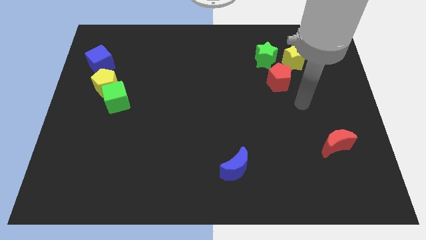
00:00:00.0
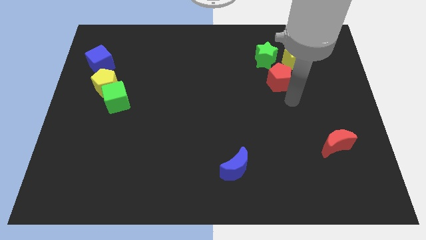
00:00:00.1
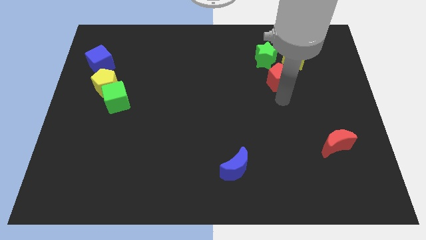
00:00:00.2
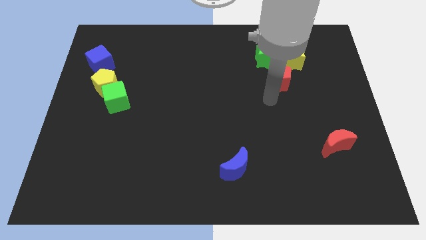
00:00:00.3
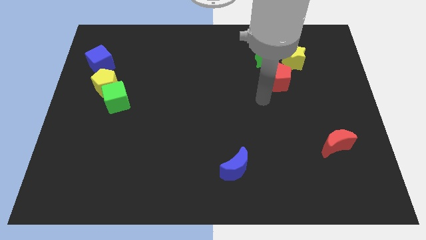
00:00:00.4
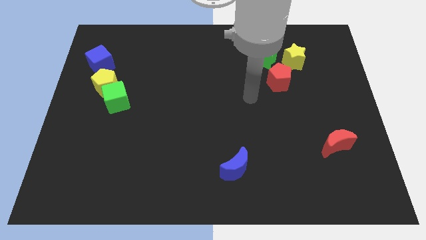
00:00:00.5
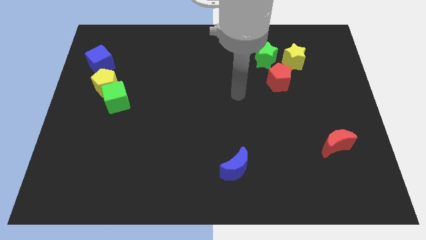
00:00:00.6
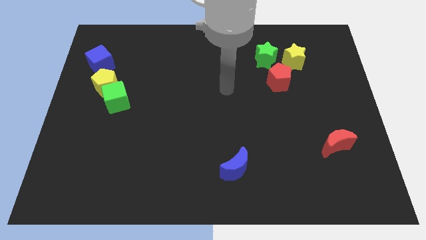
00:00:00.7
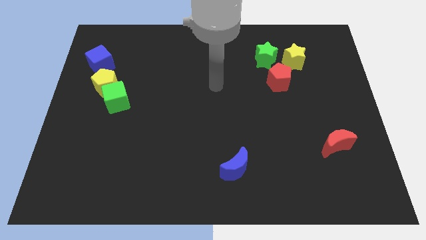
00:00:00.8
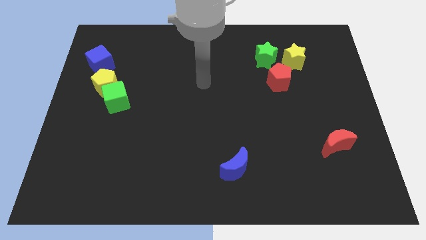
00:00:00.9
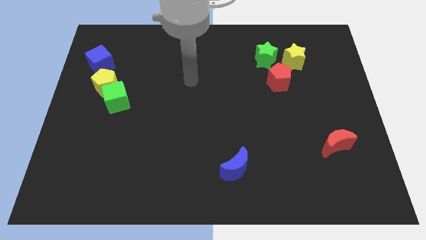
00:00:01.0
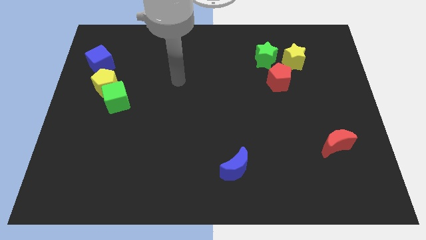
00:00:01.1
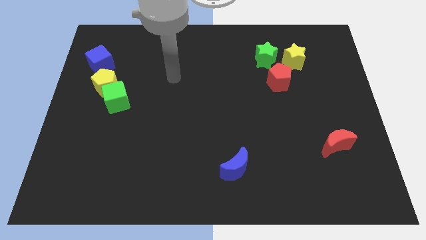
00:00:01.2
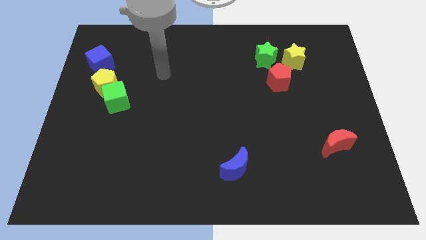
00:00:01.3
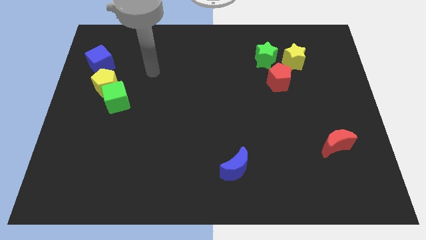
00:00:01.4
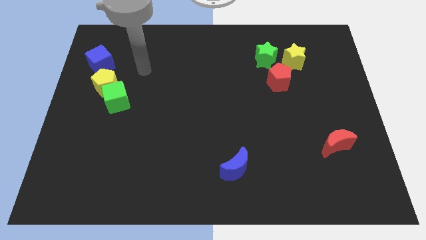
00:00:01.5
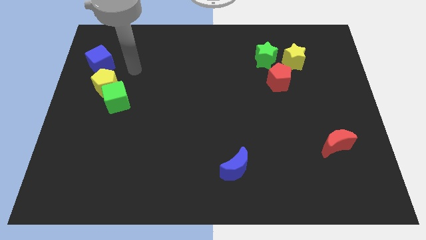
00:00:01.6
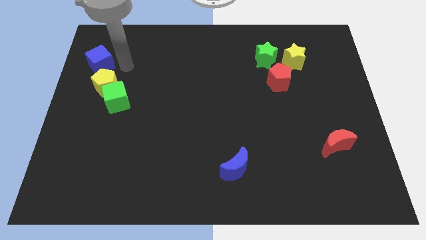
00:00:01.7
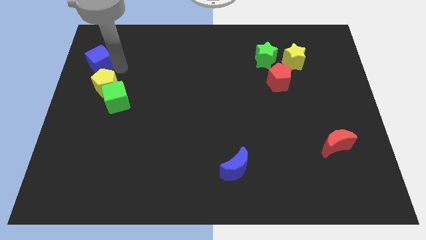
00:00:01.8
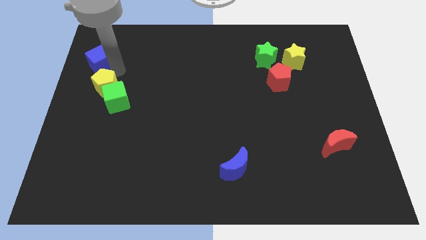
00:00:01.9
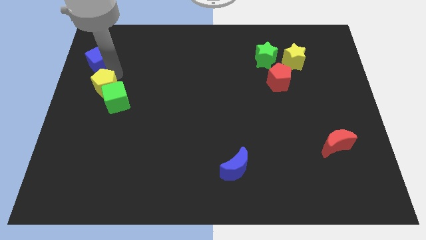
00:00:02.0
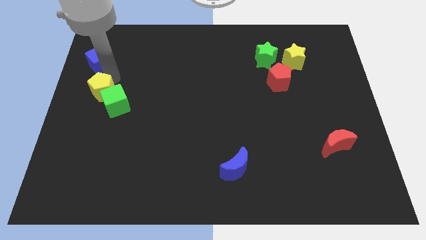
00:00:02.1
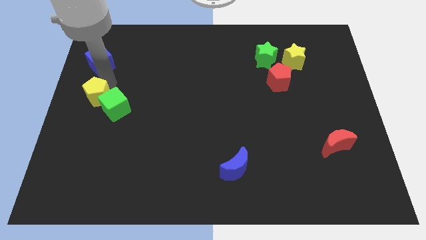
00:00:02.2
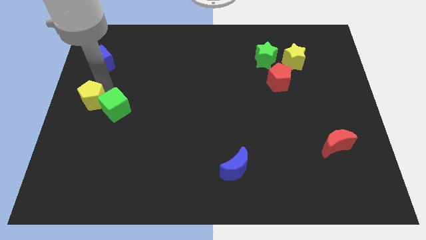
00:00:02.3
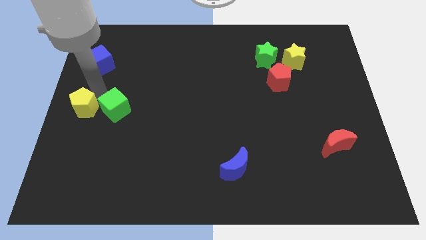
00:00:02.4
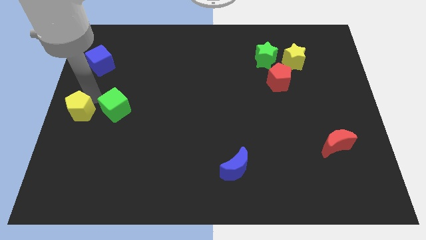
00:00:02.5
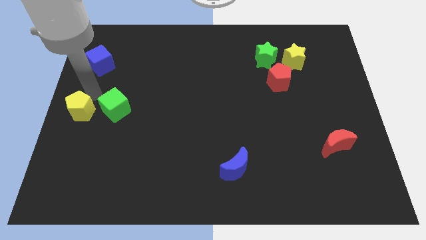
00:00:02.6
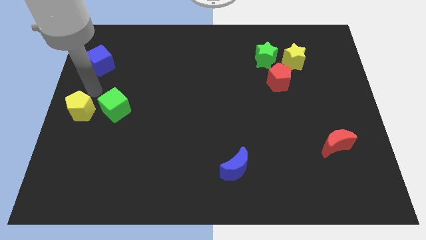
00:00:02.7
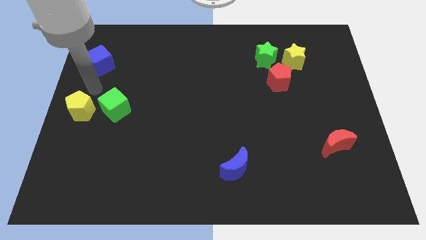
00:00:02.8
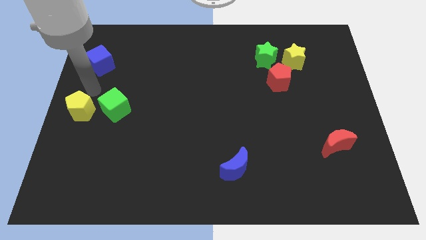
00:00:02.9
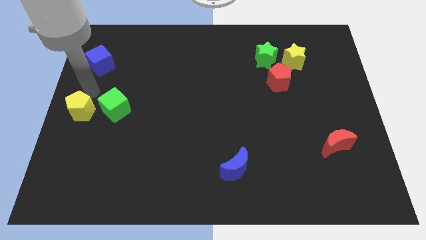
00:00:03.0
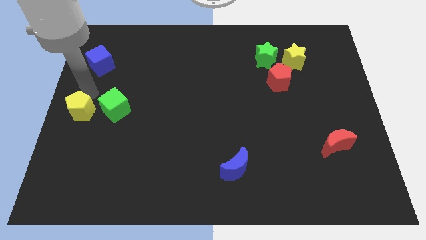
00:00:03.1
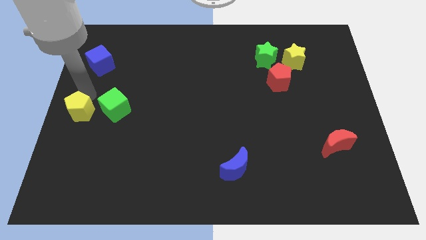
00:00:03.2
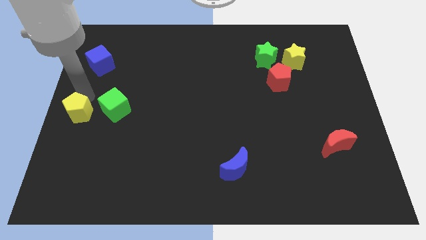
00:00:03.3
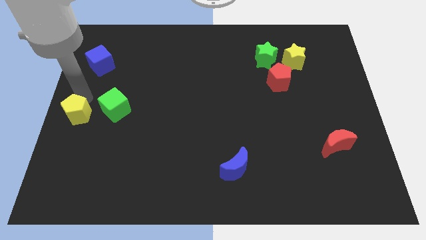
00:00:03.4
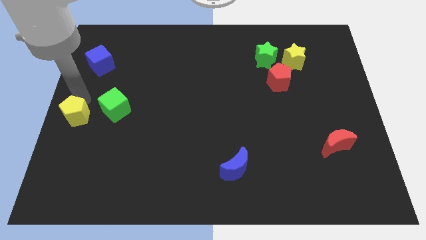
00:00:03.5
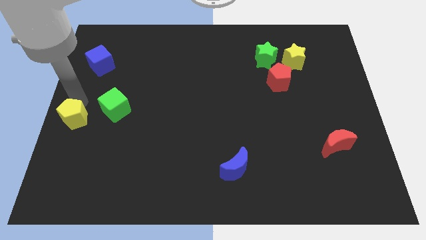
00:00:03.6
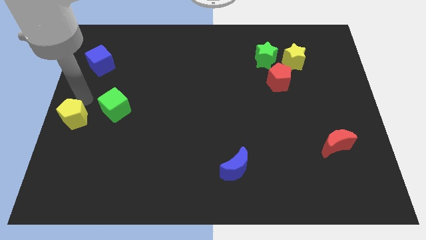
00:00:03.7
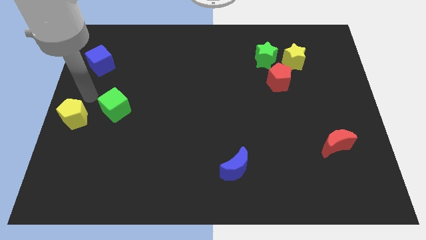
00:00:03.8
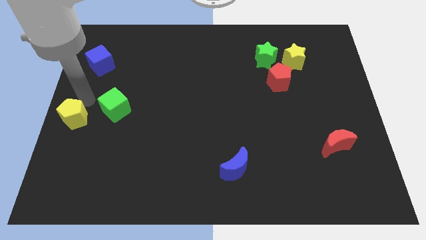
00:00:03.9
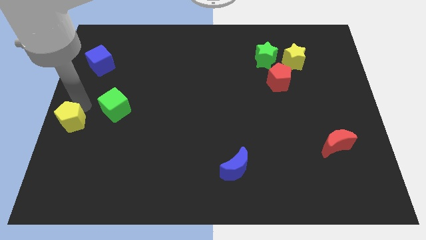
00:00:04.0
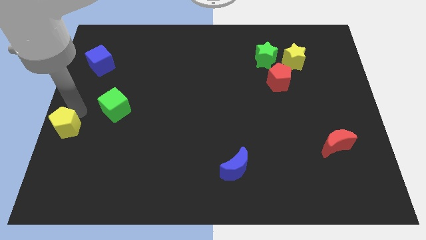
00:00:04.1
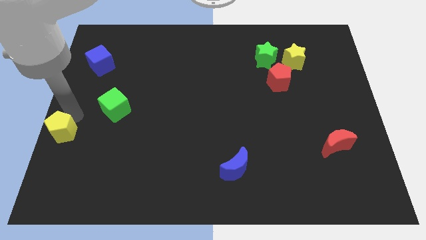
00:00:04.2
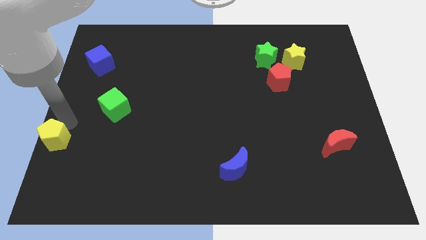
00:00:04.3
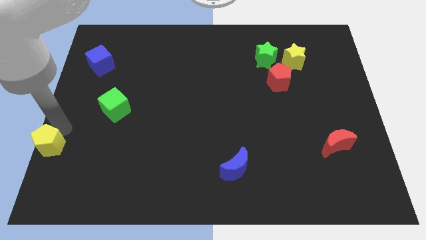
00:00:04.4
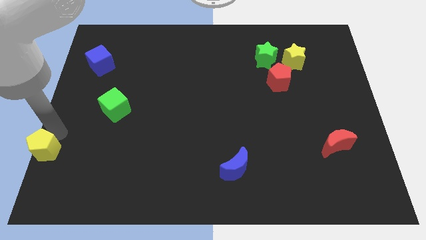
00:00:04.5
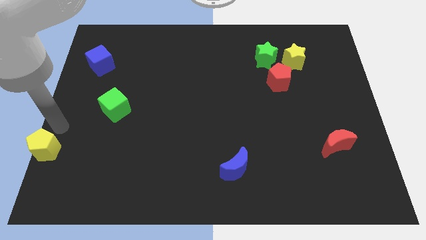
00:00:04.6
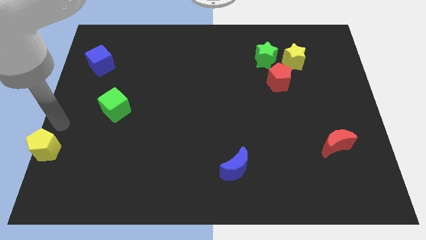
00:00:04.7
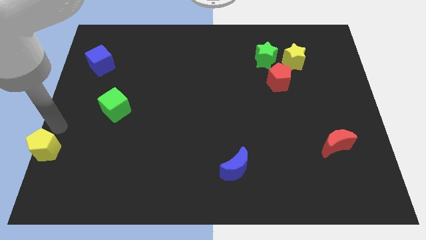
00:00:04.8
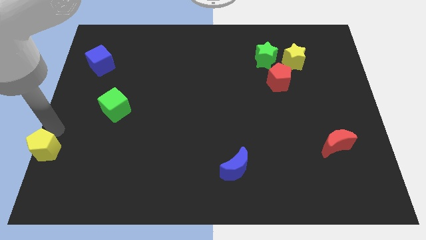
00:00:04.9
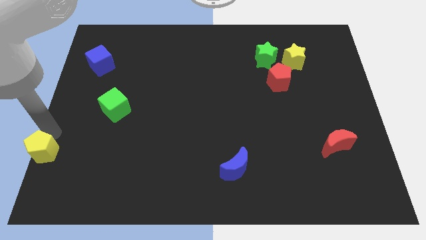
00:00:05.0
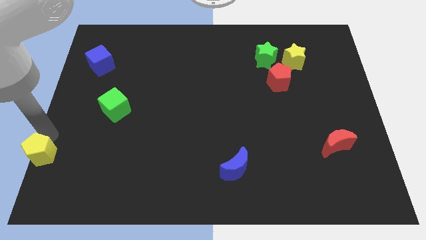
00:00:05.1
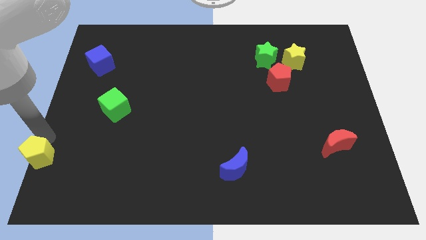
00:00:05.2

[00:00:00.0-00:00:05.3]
slide the yellow pentagon to the bottom left

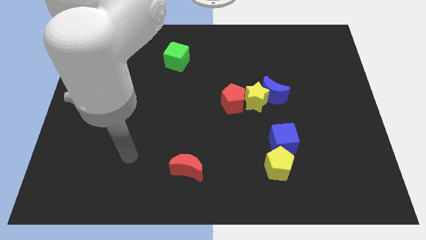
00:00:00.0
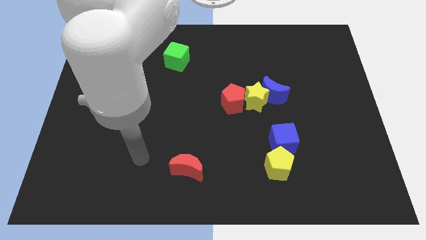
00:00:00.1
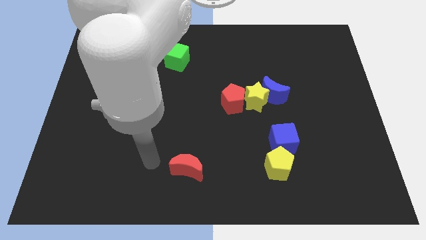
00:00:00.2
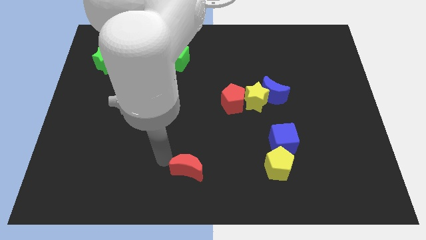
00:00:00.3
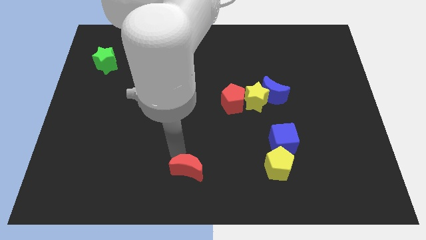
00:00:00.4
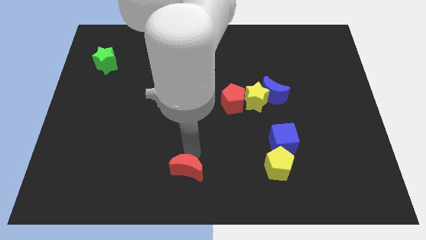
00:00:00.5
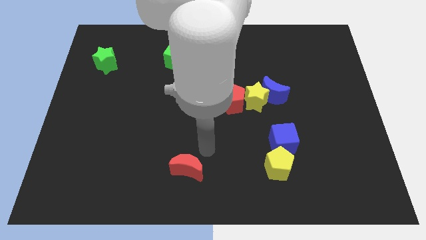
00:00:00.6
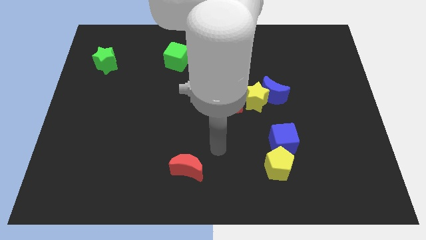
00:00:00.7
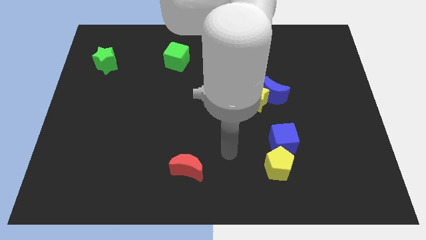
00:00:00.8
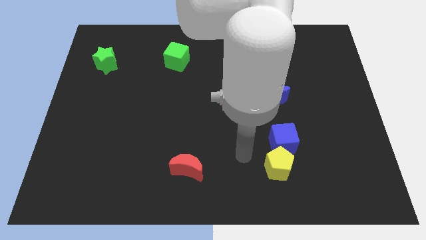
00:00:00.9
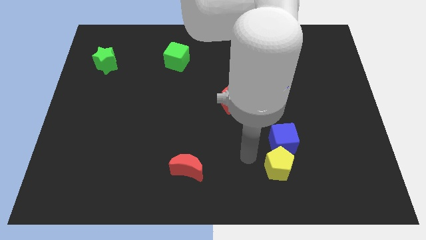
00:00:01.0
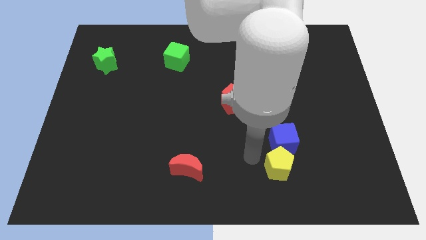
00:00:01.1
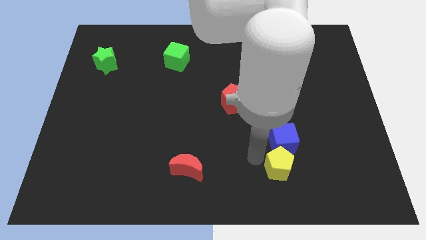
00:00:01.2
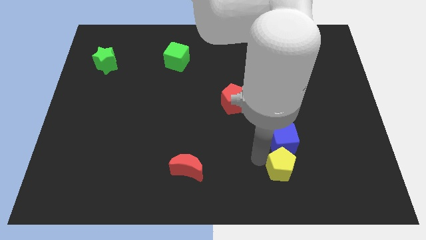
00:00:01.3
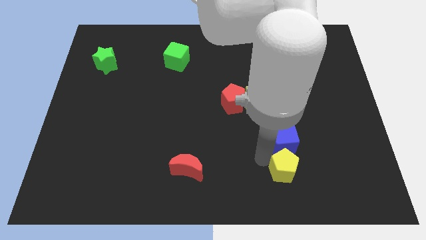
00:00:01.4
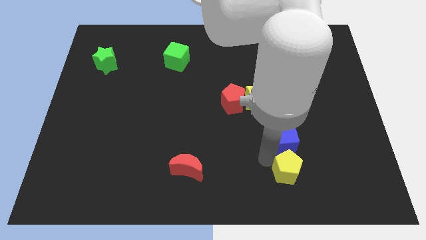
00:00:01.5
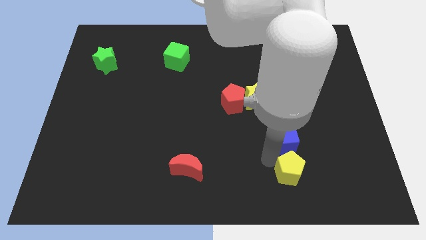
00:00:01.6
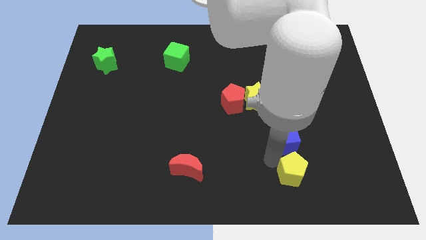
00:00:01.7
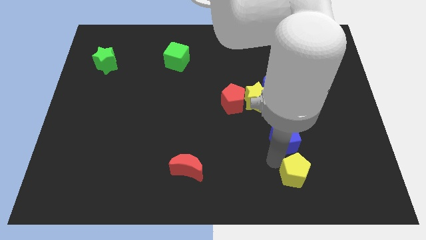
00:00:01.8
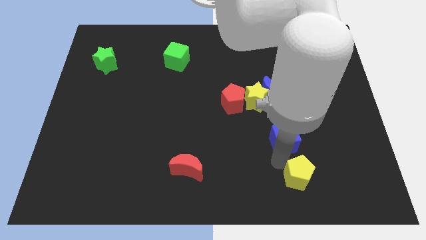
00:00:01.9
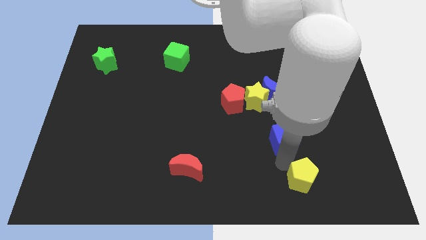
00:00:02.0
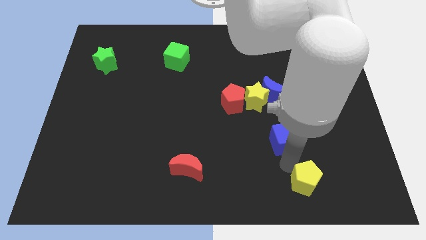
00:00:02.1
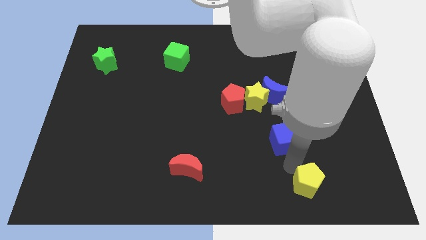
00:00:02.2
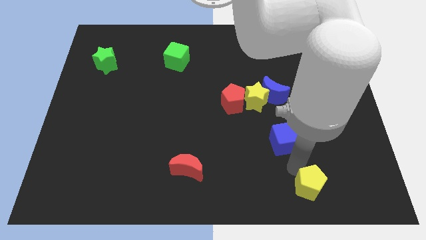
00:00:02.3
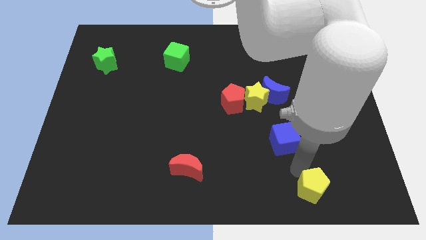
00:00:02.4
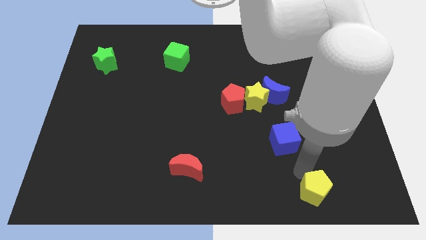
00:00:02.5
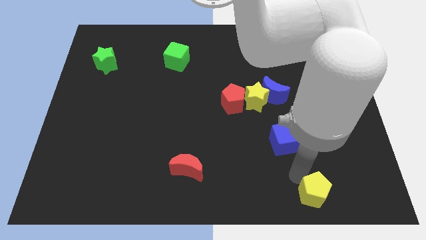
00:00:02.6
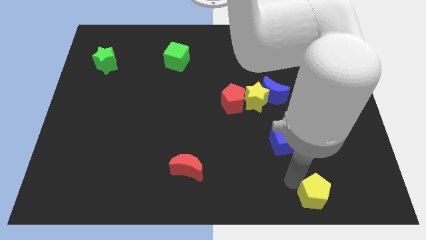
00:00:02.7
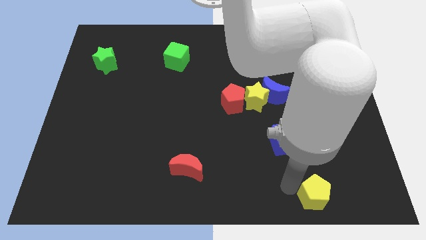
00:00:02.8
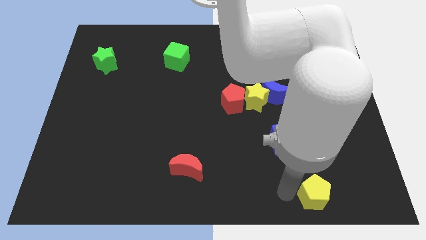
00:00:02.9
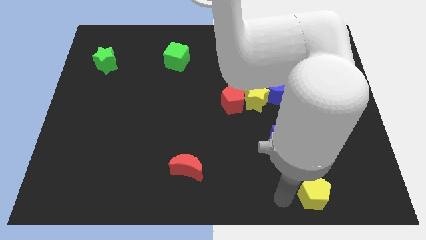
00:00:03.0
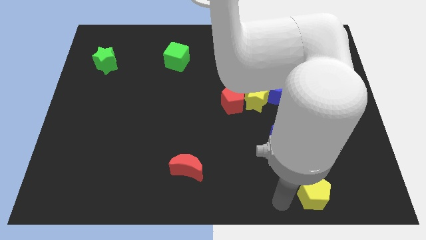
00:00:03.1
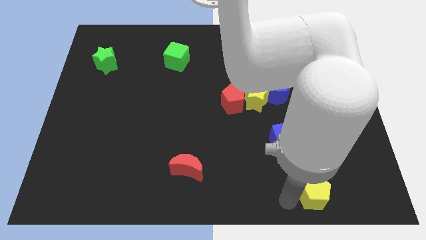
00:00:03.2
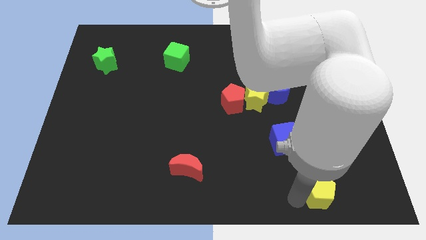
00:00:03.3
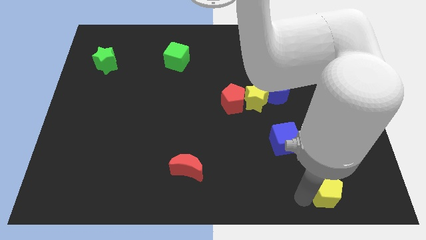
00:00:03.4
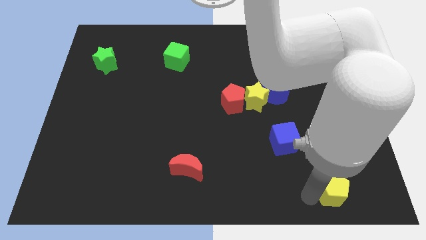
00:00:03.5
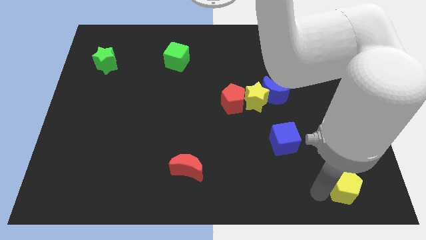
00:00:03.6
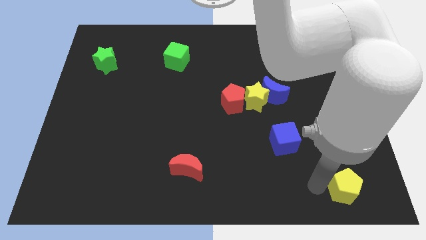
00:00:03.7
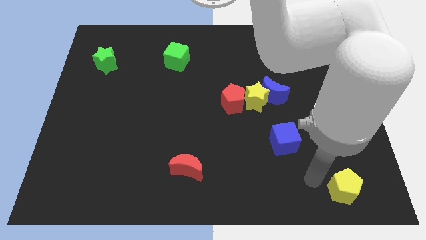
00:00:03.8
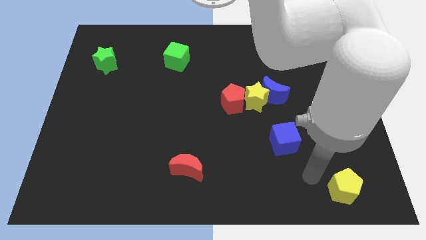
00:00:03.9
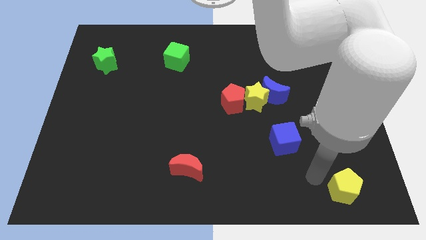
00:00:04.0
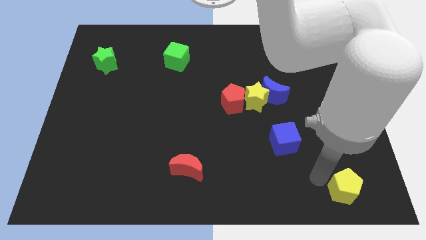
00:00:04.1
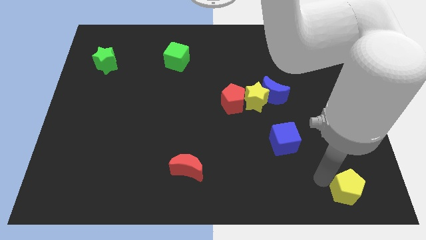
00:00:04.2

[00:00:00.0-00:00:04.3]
put the yellow pentagon to the bottom right
